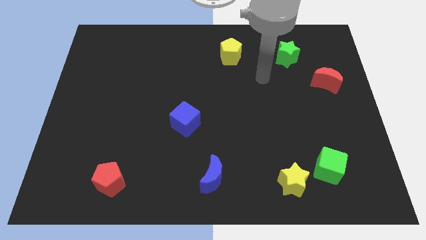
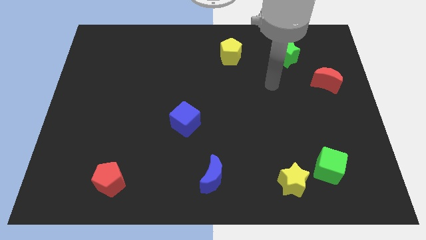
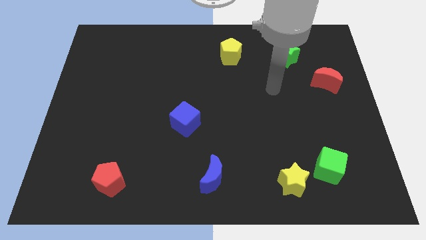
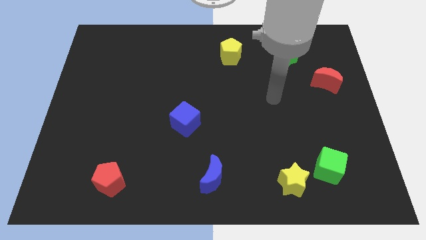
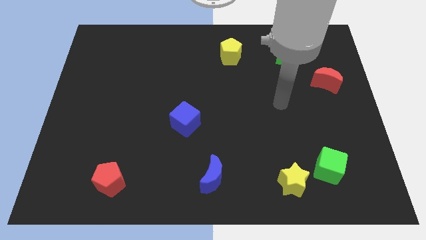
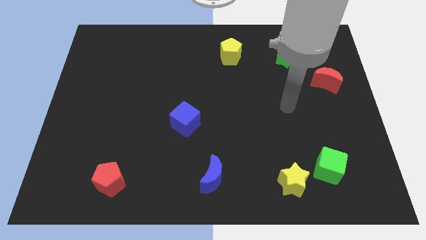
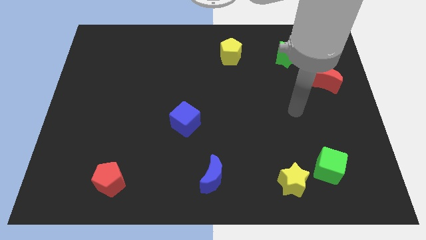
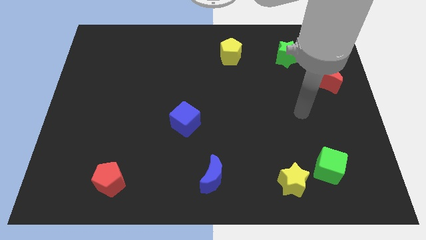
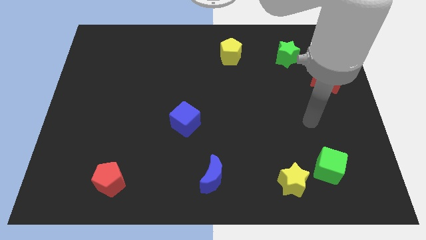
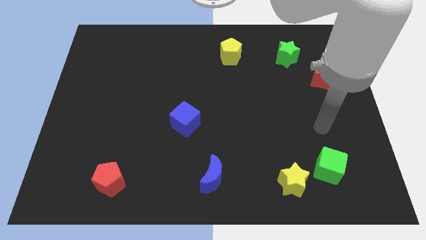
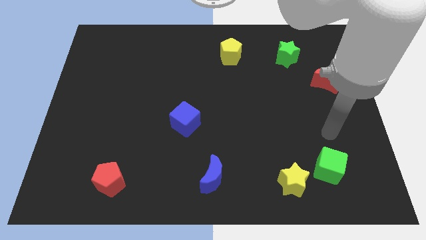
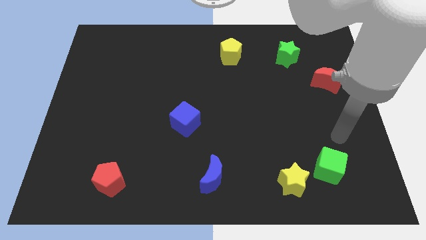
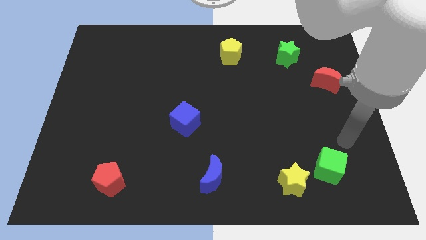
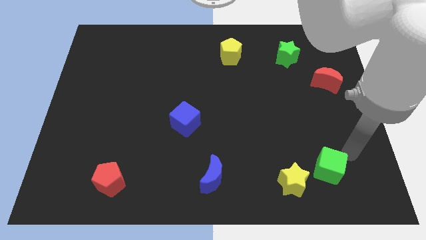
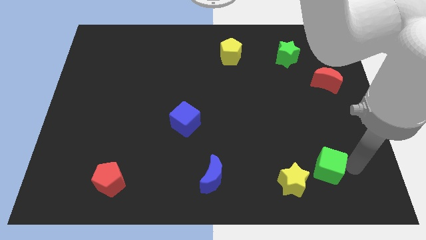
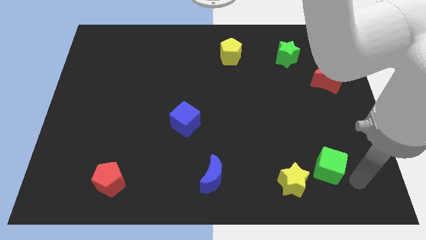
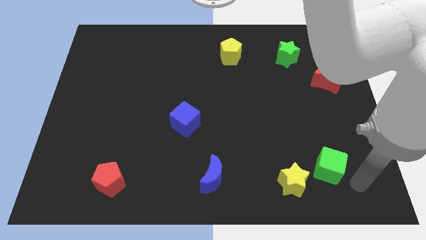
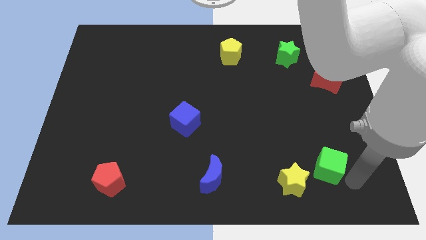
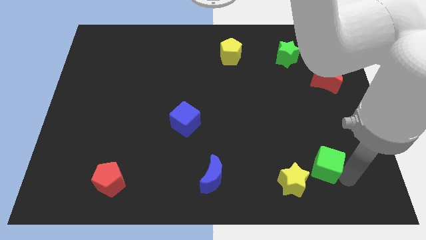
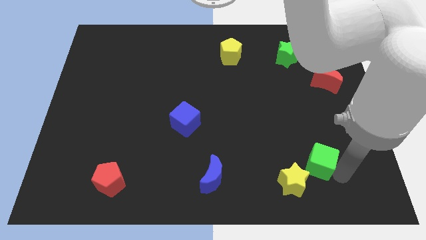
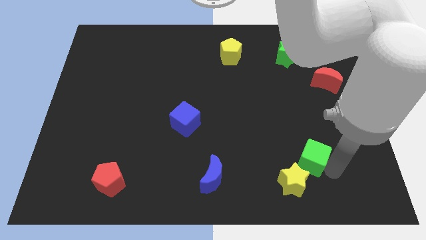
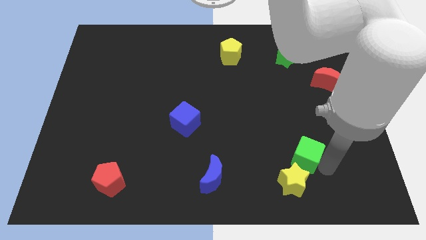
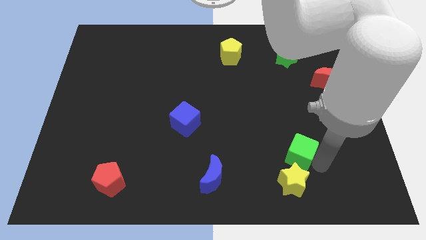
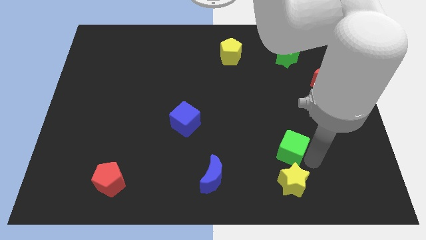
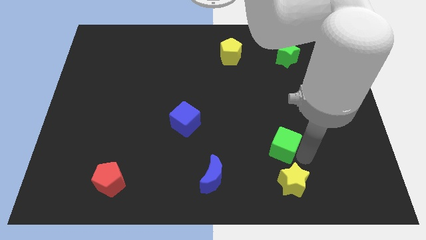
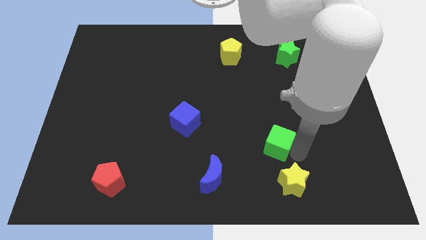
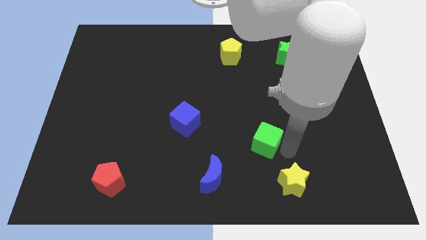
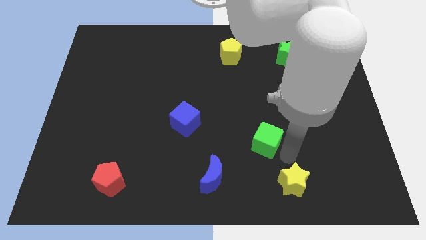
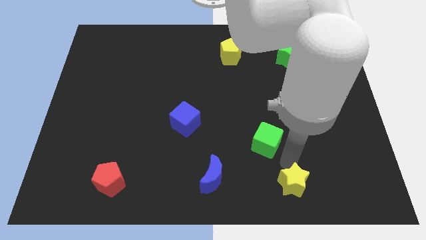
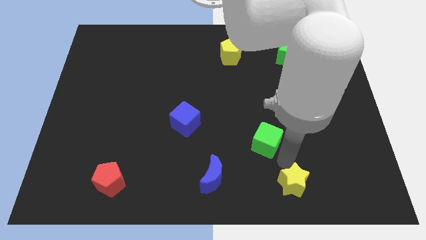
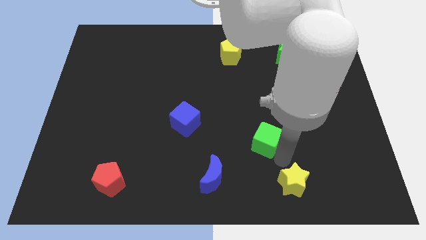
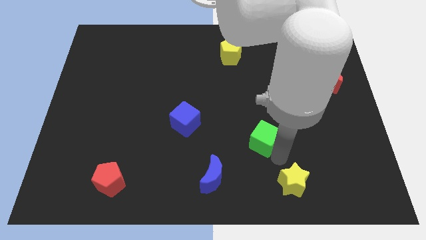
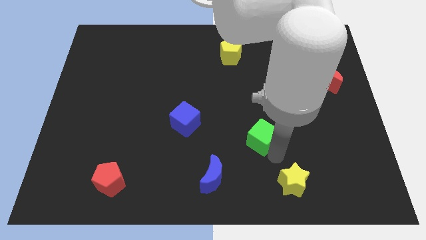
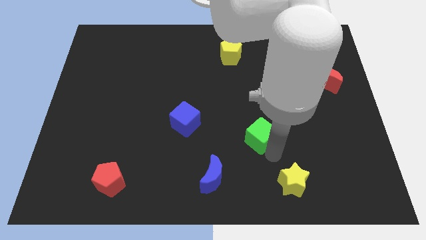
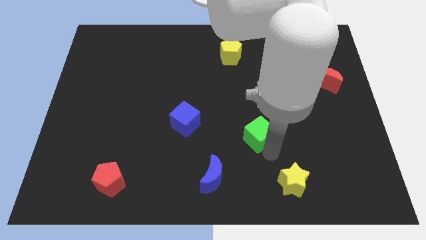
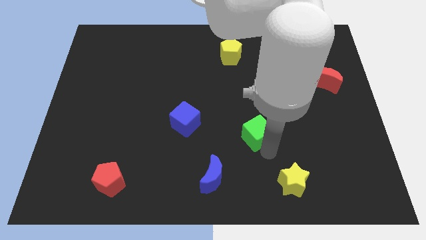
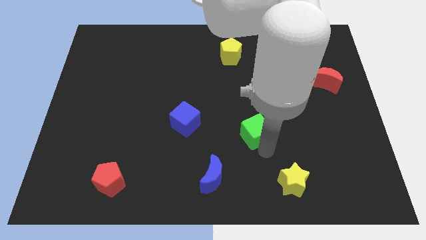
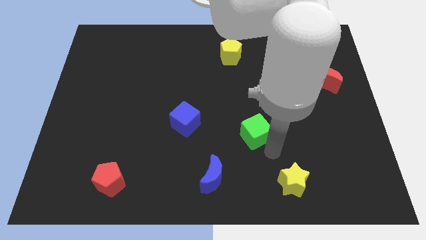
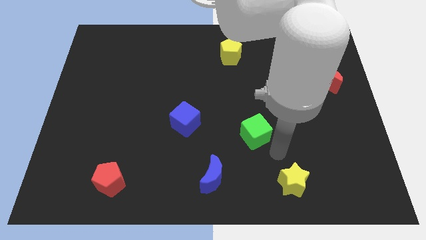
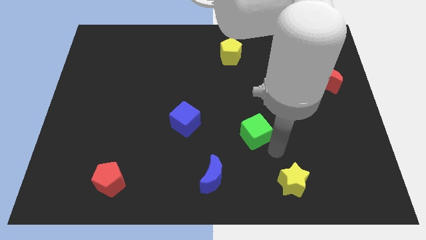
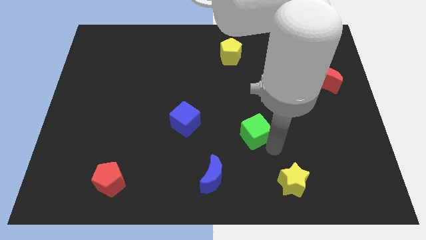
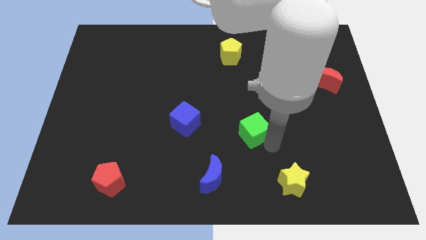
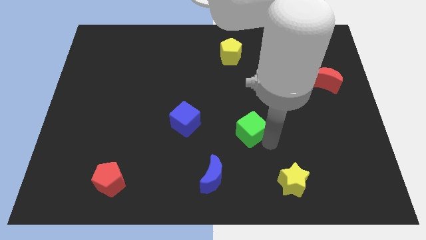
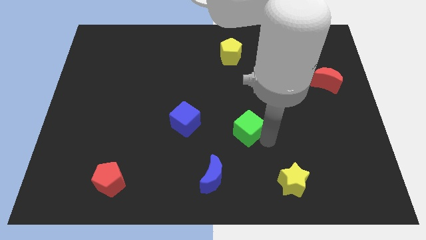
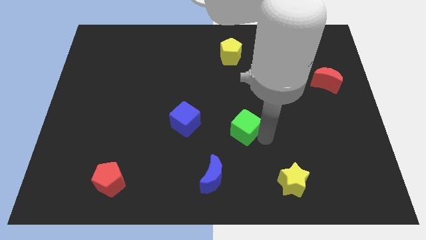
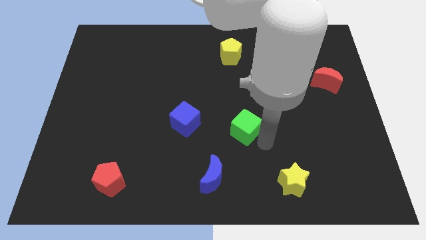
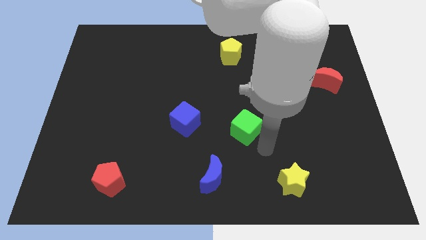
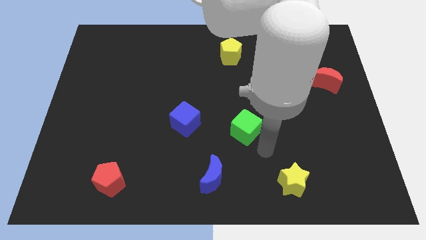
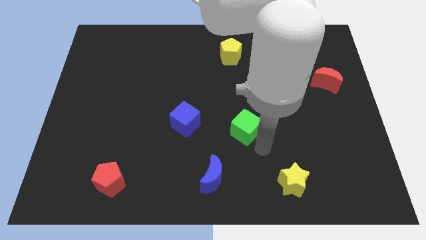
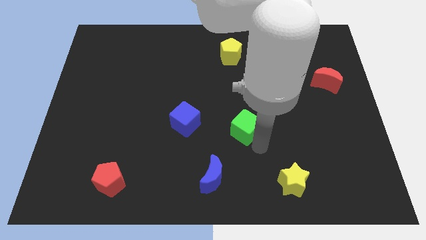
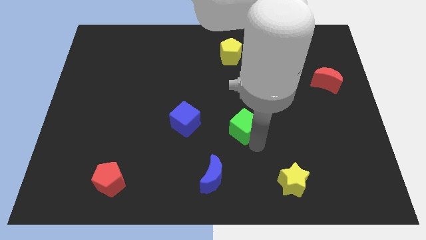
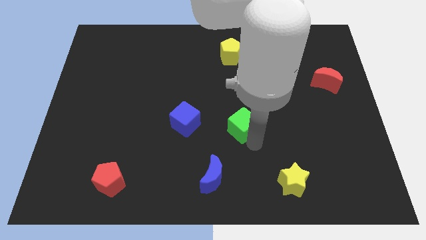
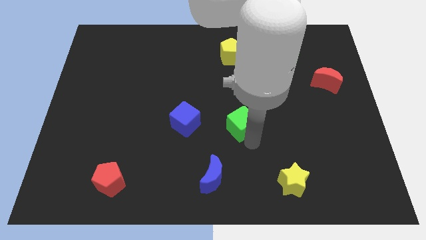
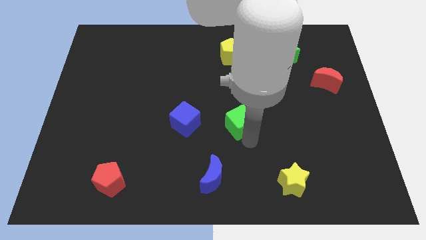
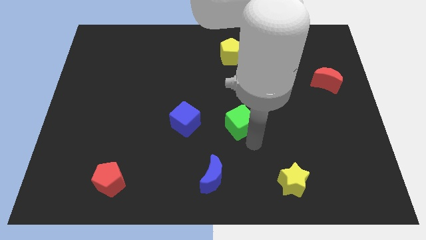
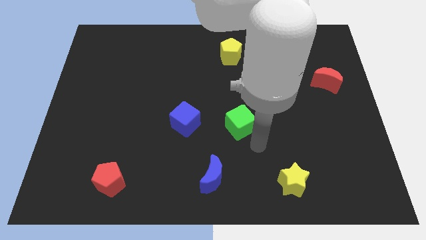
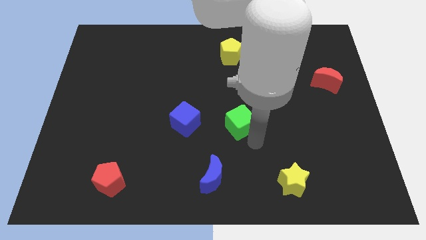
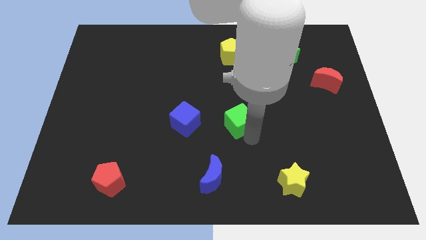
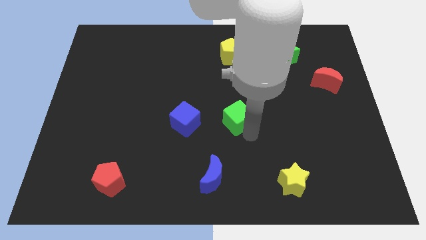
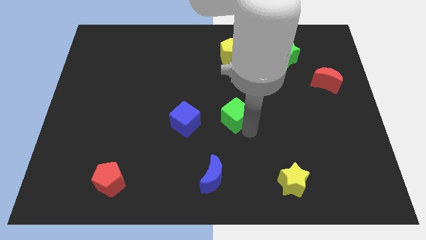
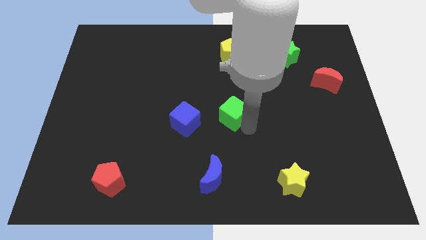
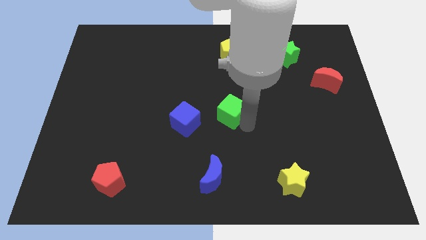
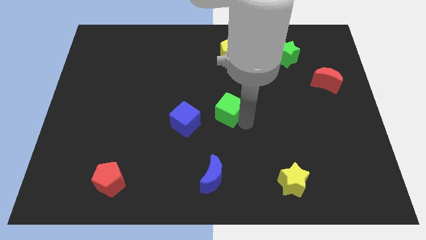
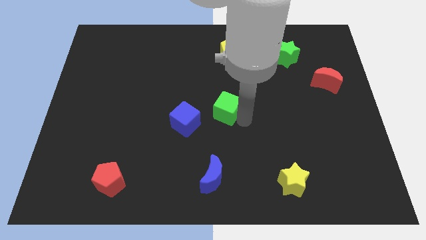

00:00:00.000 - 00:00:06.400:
move the green cube diagonally up and to the right of the blue cube
